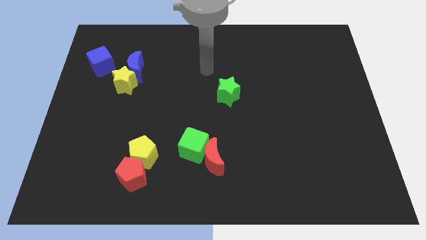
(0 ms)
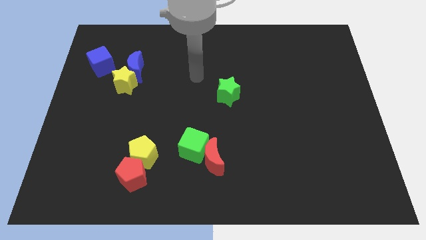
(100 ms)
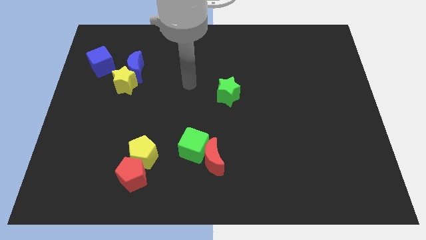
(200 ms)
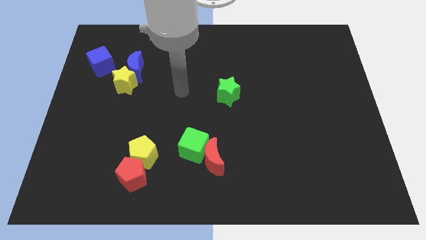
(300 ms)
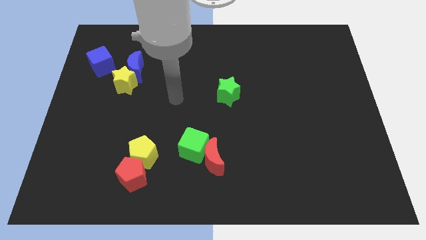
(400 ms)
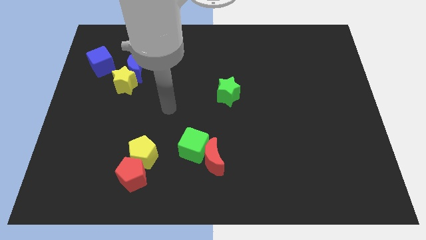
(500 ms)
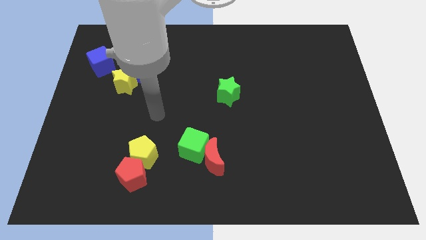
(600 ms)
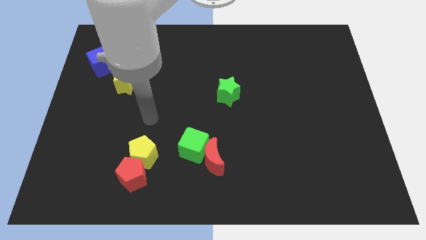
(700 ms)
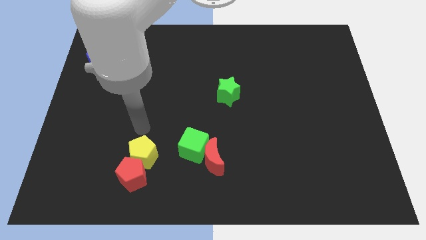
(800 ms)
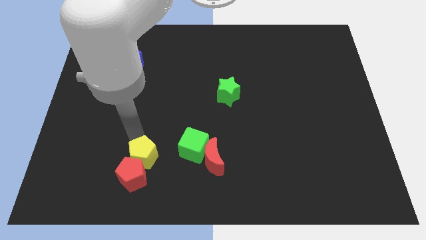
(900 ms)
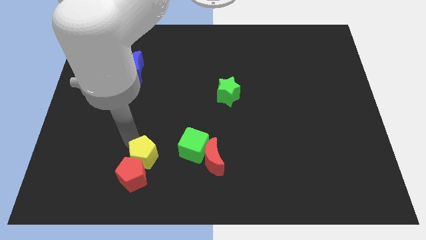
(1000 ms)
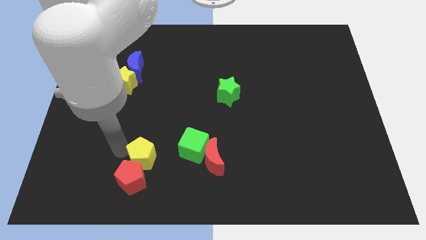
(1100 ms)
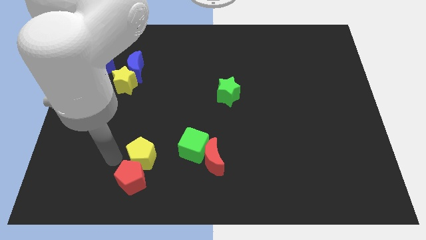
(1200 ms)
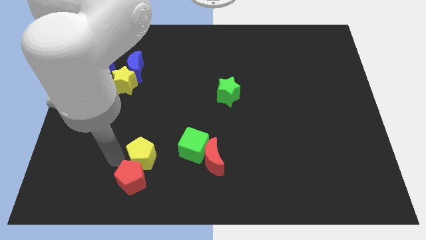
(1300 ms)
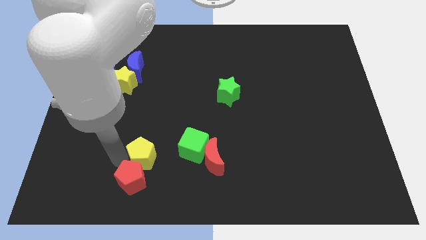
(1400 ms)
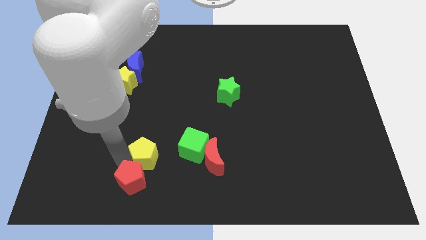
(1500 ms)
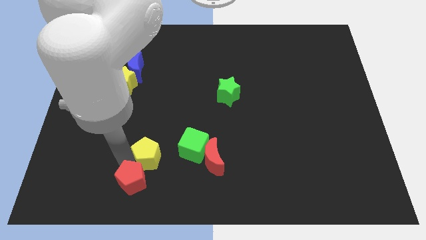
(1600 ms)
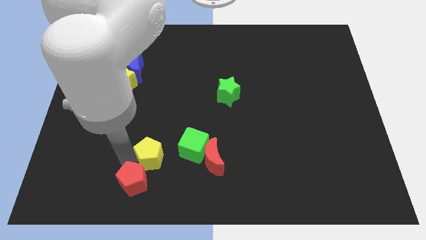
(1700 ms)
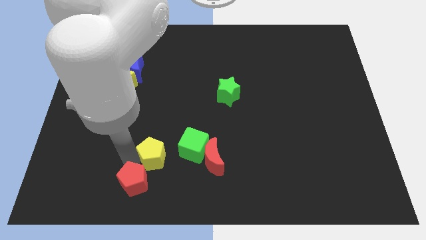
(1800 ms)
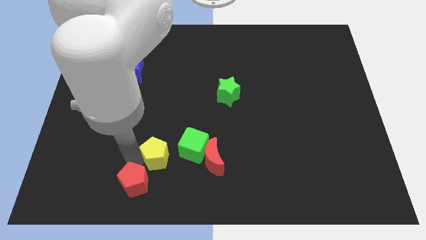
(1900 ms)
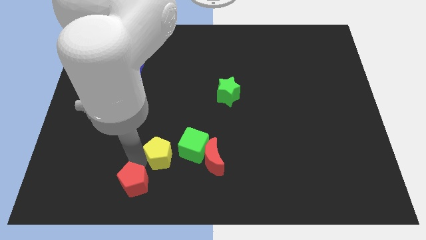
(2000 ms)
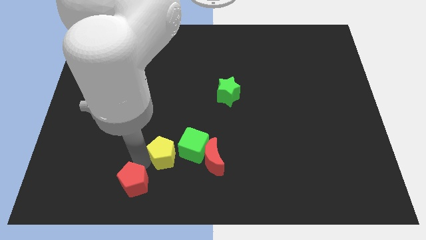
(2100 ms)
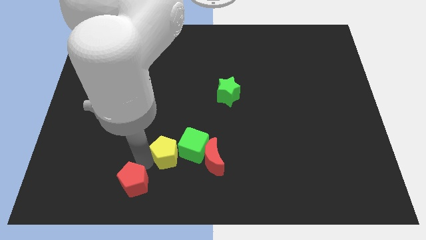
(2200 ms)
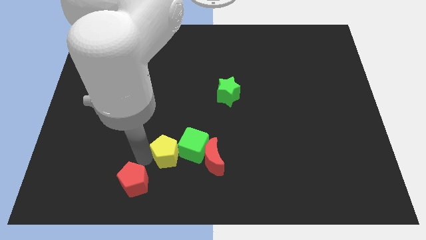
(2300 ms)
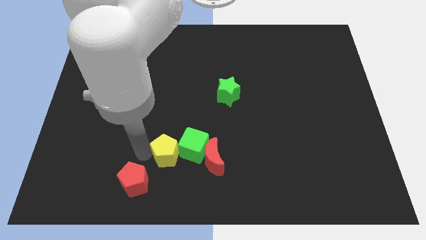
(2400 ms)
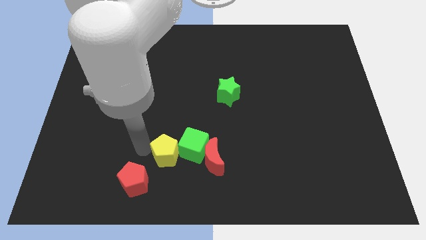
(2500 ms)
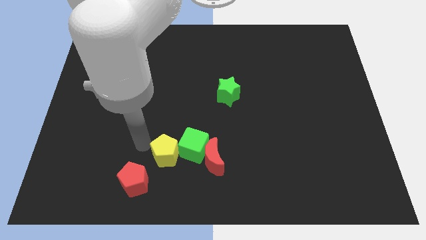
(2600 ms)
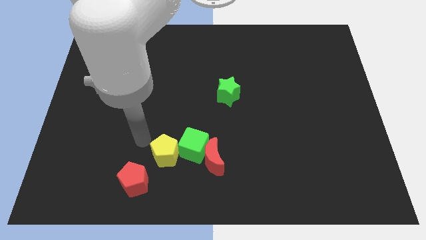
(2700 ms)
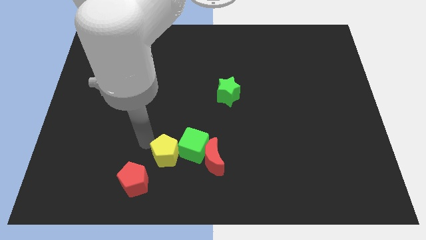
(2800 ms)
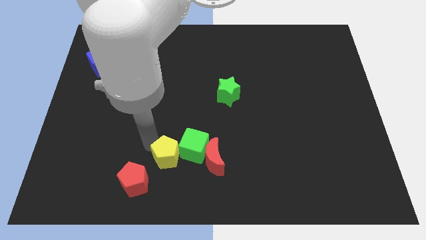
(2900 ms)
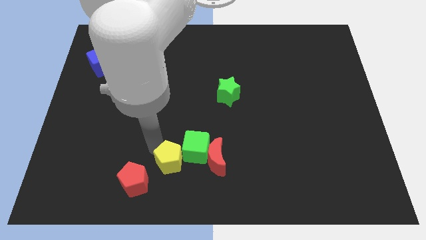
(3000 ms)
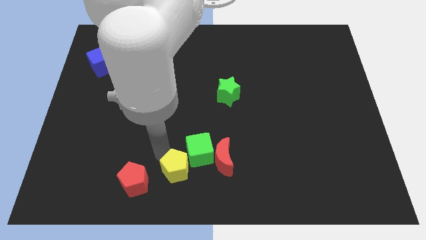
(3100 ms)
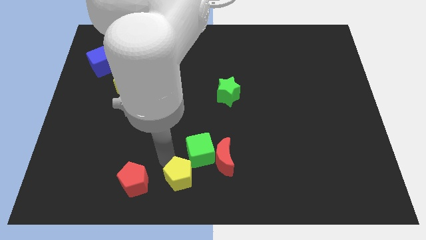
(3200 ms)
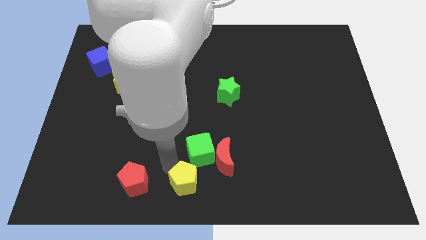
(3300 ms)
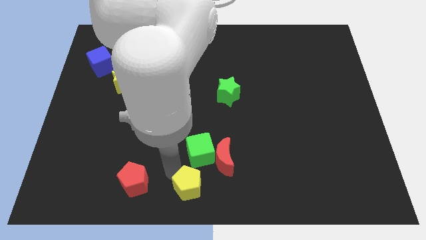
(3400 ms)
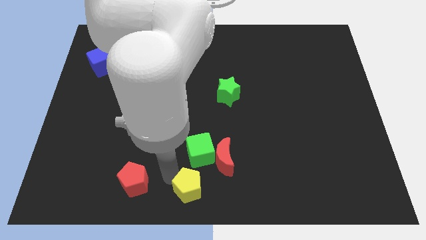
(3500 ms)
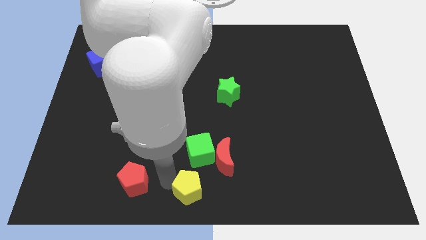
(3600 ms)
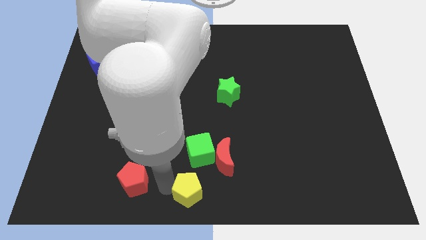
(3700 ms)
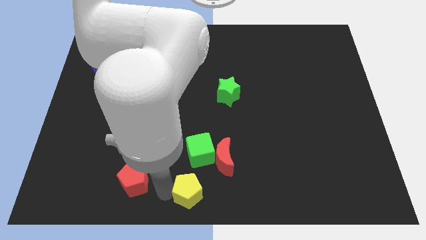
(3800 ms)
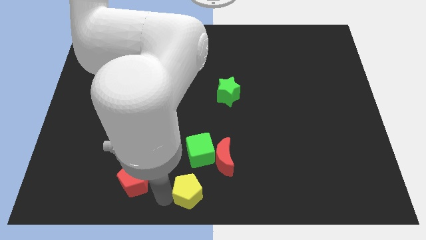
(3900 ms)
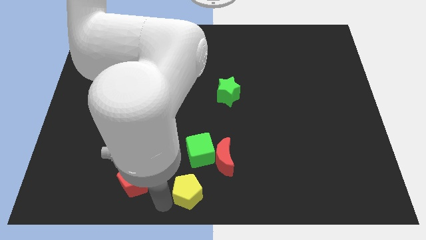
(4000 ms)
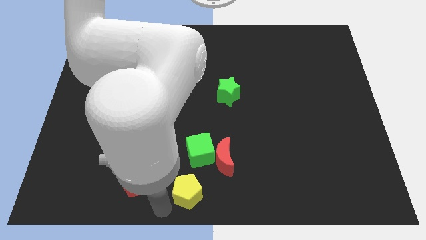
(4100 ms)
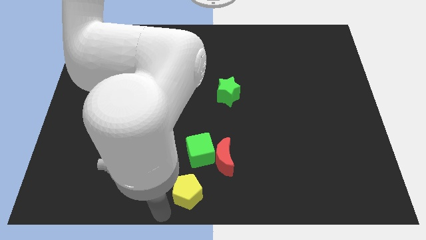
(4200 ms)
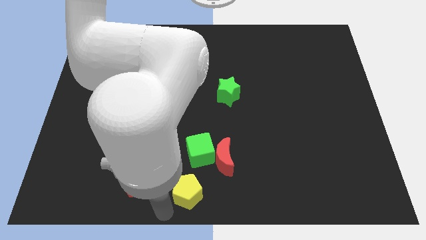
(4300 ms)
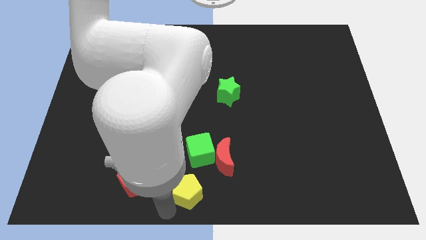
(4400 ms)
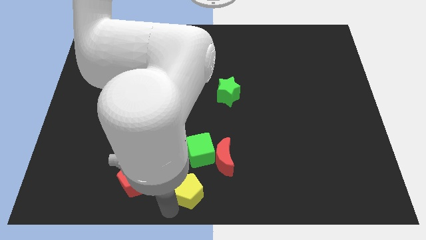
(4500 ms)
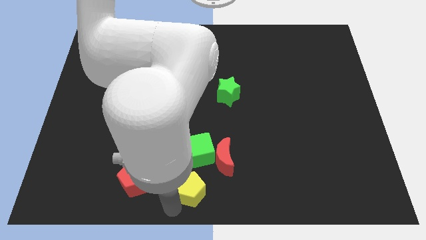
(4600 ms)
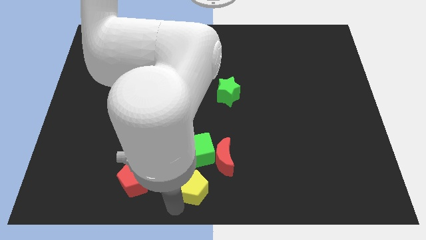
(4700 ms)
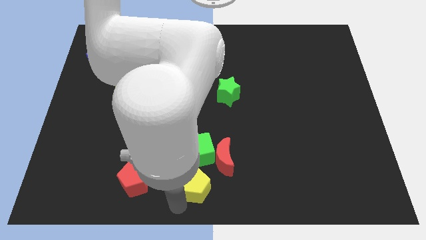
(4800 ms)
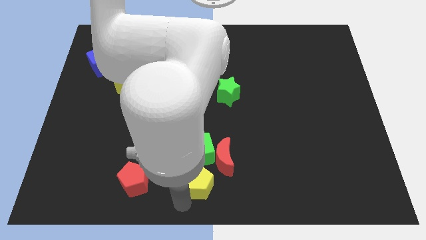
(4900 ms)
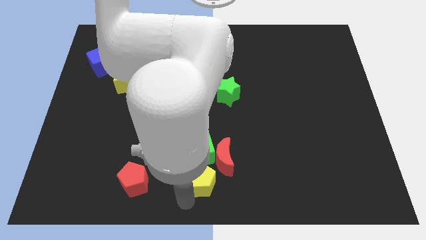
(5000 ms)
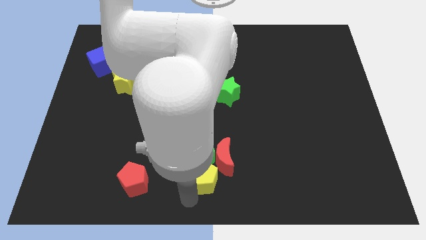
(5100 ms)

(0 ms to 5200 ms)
put the yellow pentagon next to the red moon

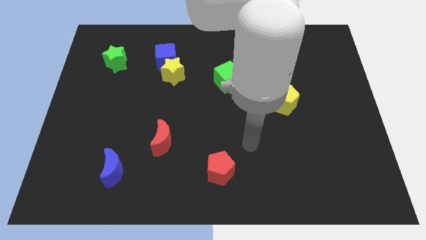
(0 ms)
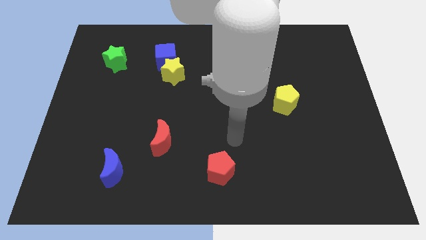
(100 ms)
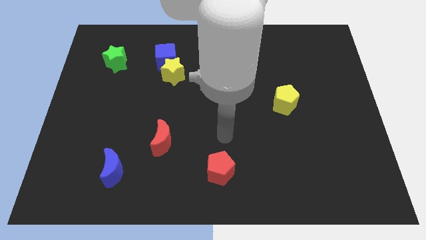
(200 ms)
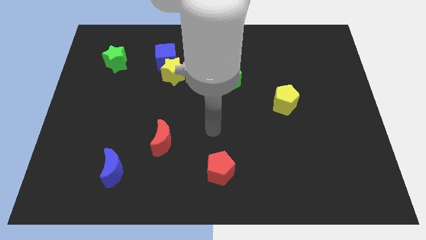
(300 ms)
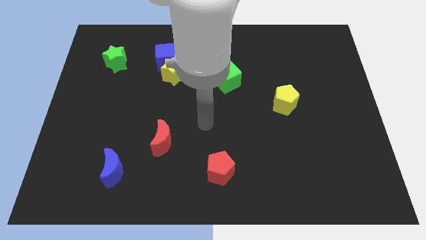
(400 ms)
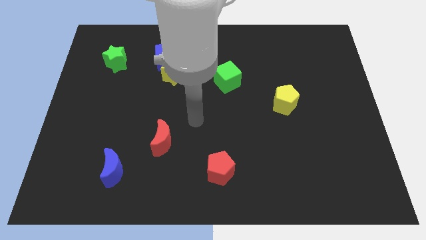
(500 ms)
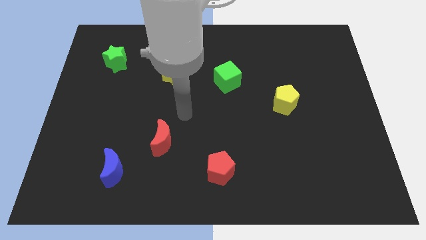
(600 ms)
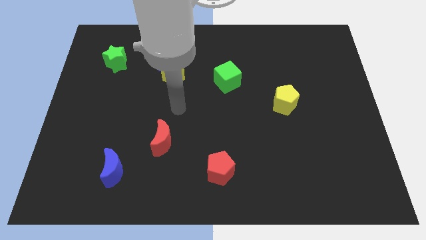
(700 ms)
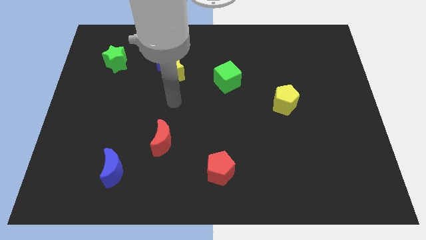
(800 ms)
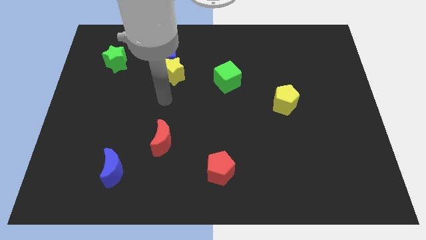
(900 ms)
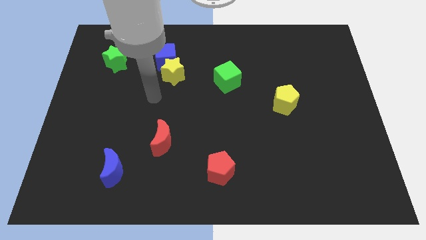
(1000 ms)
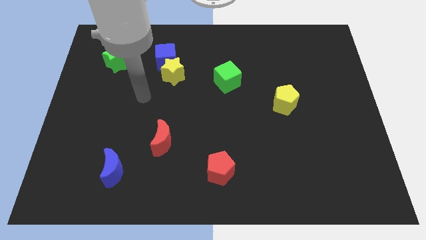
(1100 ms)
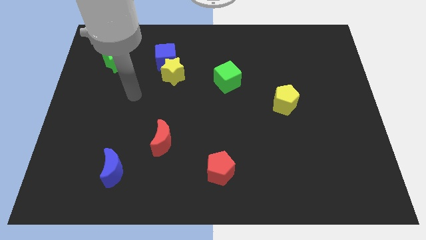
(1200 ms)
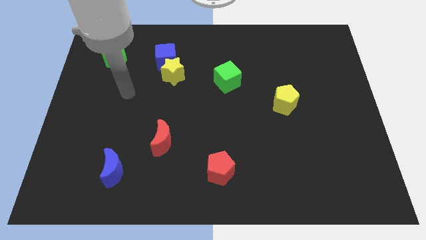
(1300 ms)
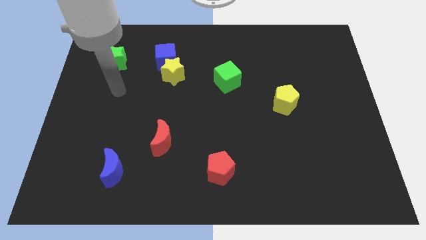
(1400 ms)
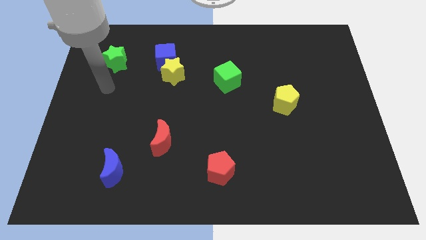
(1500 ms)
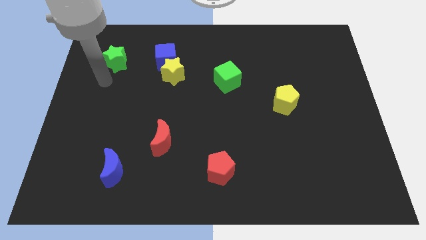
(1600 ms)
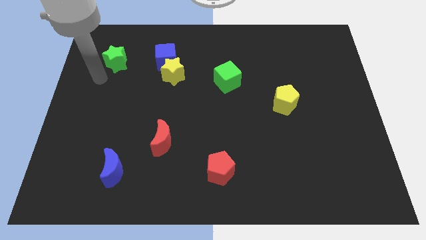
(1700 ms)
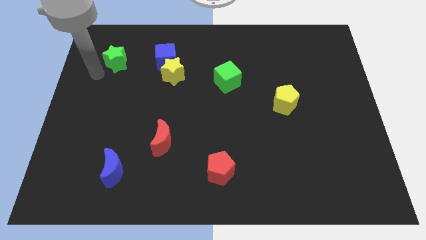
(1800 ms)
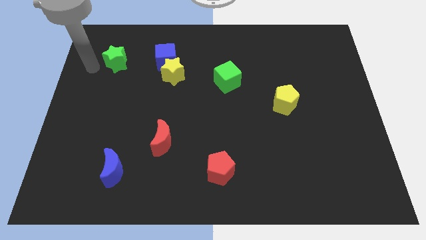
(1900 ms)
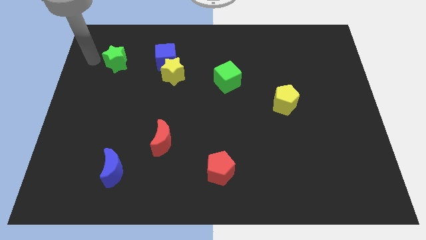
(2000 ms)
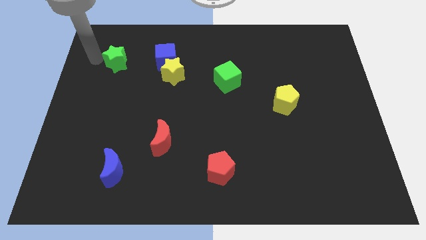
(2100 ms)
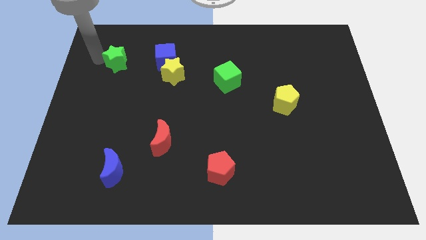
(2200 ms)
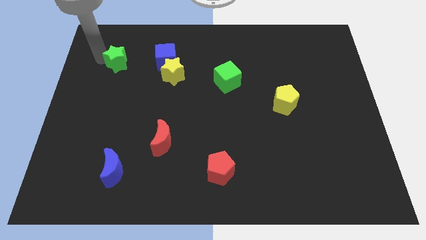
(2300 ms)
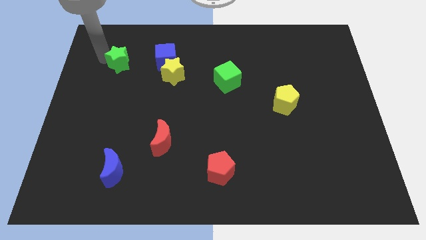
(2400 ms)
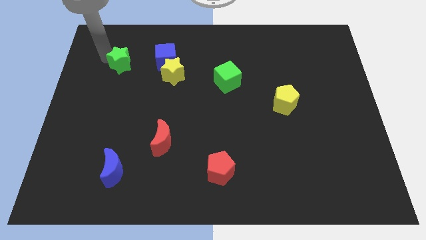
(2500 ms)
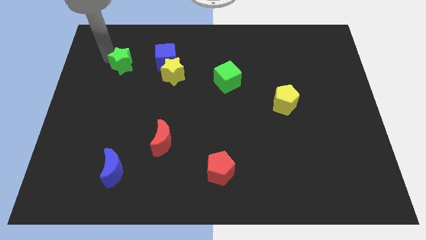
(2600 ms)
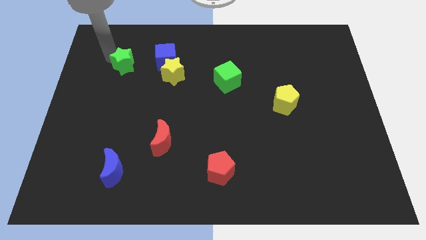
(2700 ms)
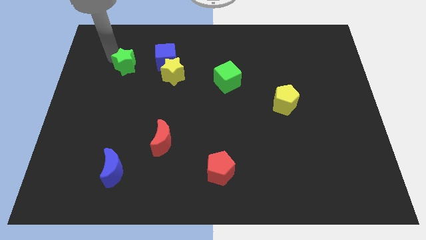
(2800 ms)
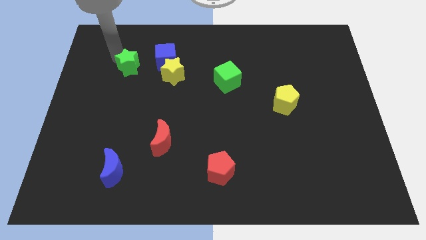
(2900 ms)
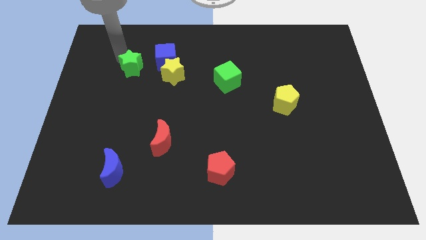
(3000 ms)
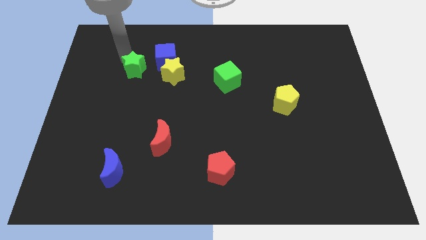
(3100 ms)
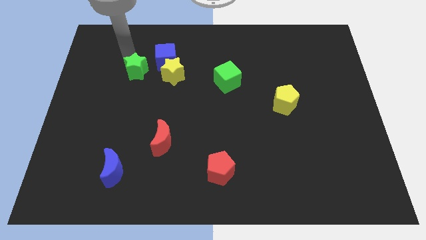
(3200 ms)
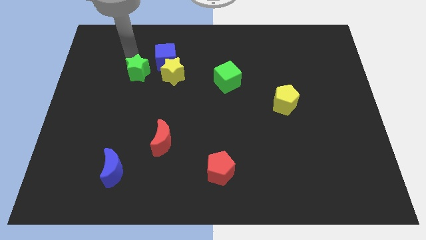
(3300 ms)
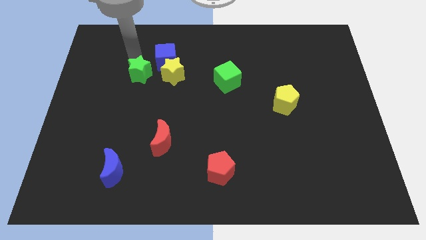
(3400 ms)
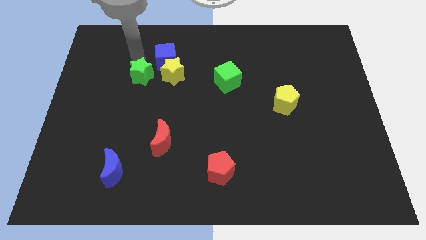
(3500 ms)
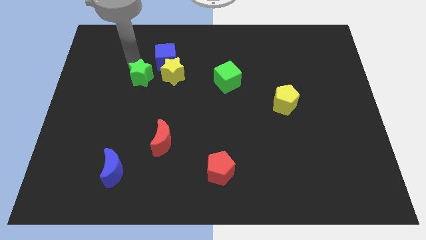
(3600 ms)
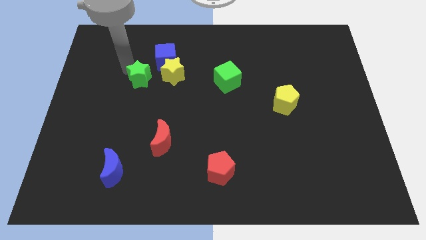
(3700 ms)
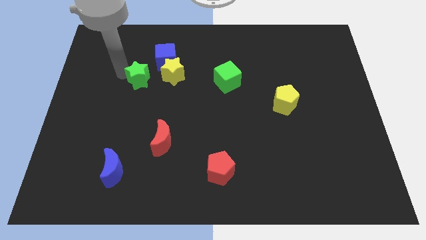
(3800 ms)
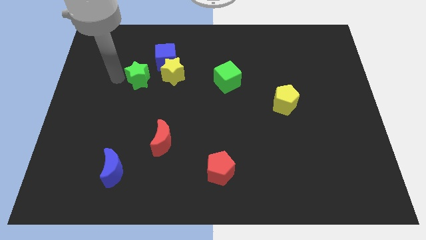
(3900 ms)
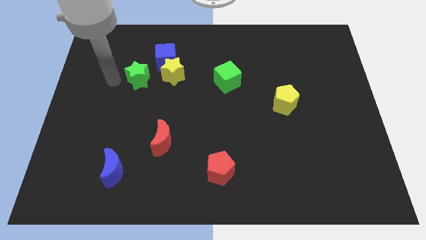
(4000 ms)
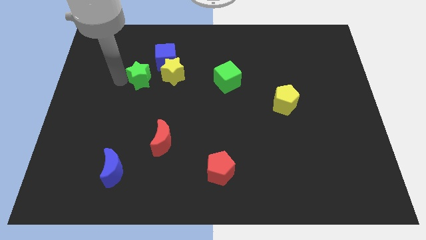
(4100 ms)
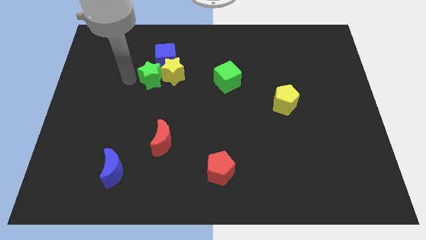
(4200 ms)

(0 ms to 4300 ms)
push the green star close to the yellow star
